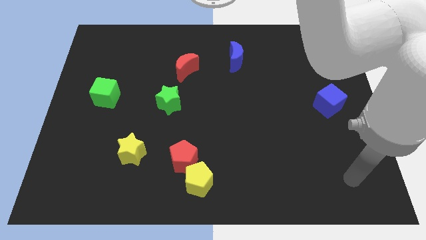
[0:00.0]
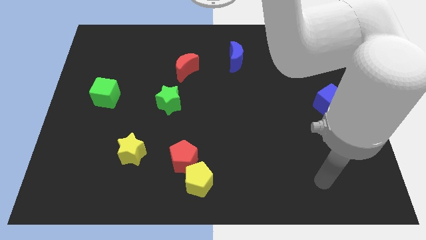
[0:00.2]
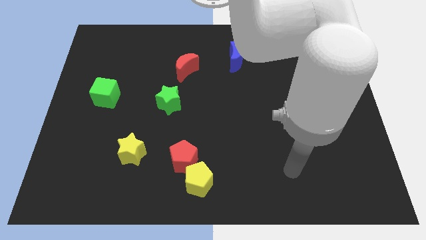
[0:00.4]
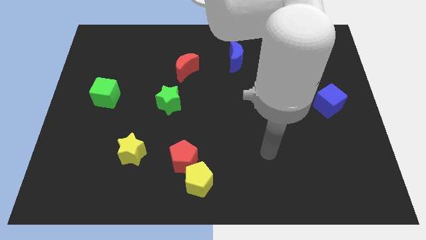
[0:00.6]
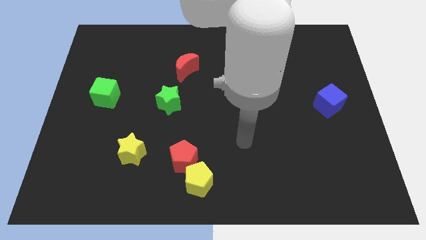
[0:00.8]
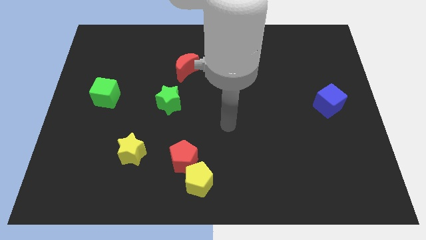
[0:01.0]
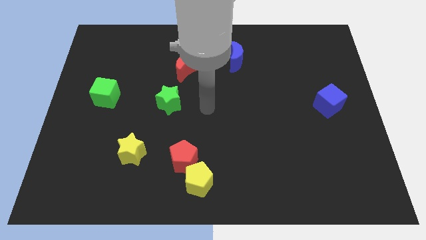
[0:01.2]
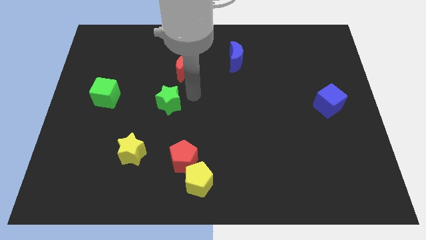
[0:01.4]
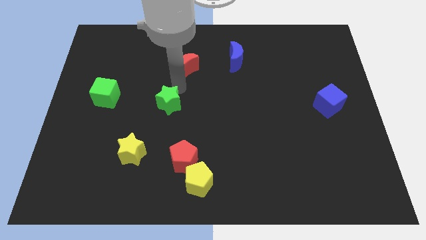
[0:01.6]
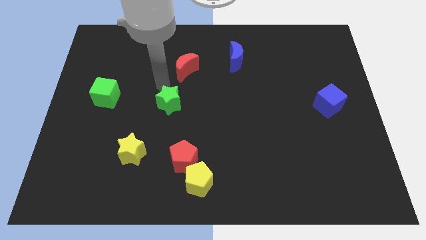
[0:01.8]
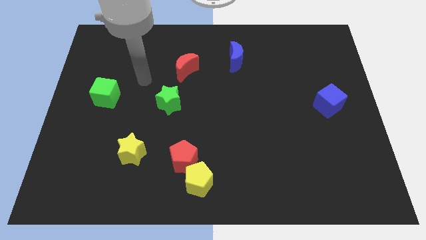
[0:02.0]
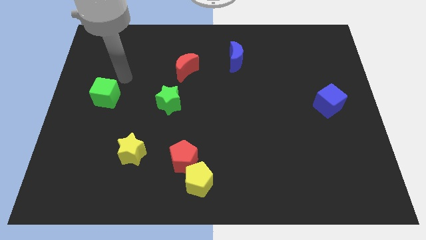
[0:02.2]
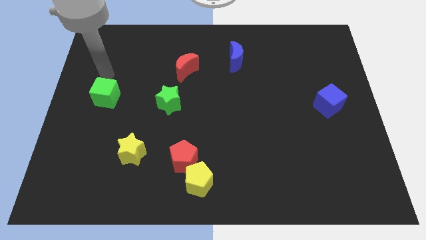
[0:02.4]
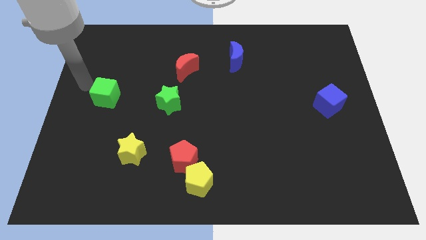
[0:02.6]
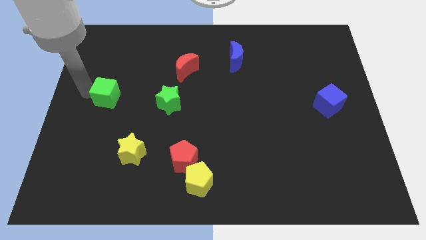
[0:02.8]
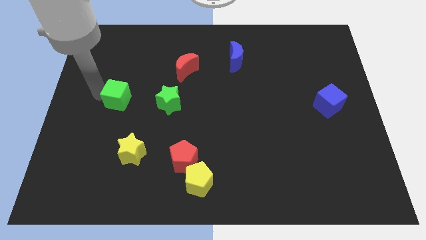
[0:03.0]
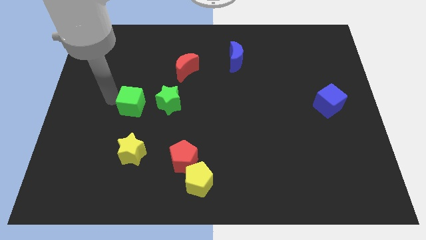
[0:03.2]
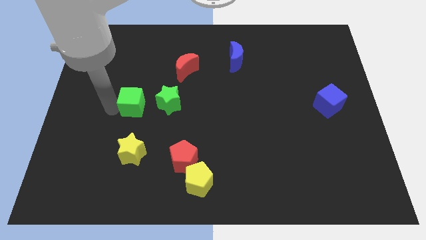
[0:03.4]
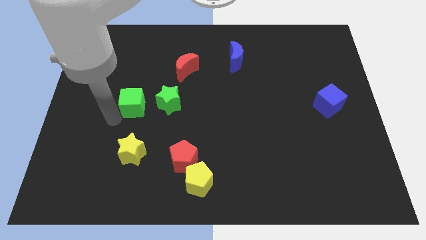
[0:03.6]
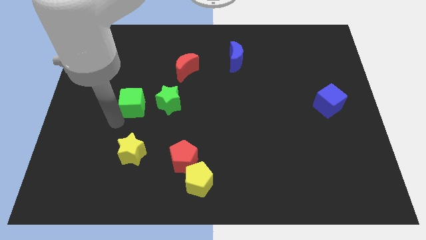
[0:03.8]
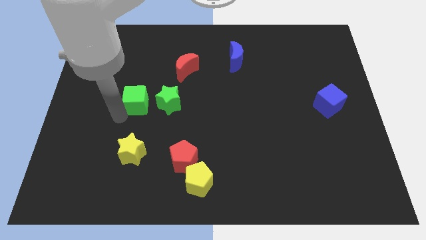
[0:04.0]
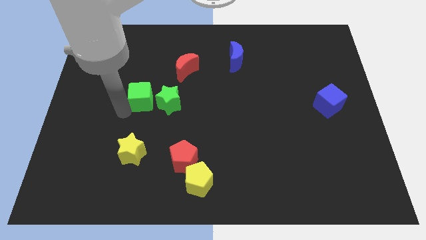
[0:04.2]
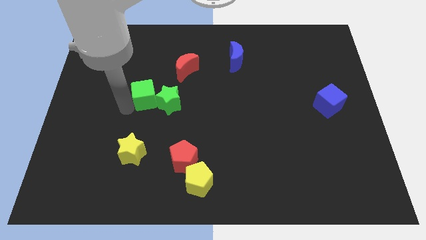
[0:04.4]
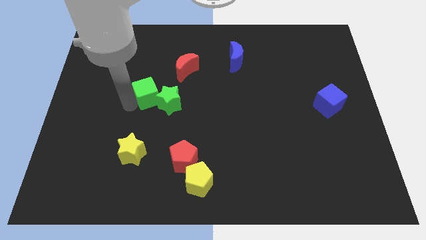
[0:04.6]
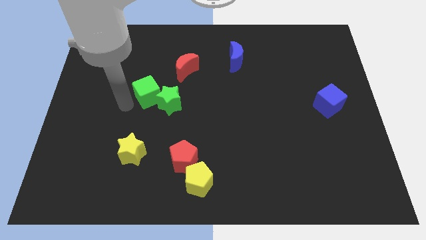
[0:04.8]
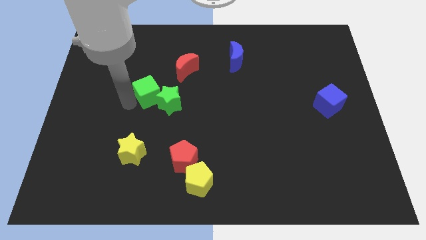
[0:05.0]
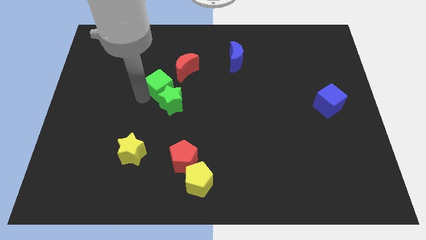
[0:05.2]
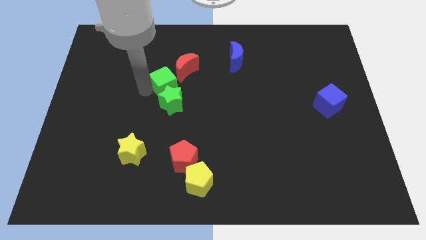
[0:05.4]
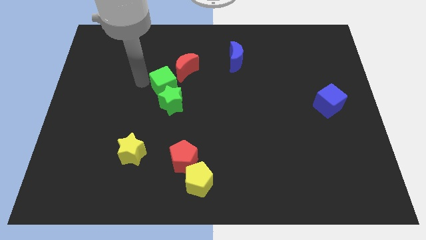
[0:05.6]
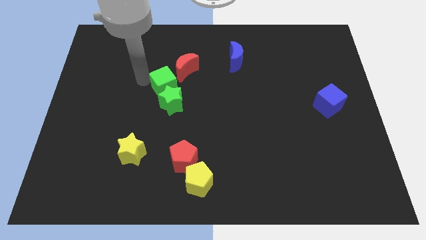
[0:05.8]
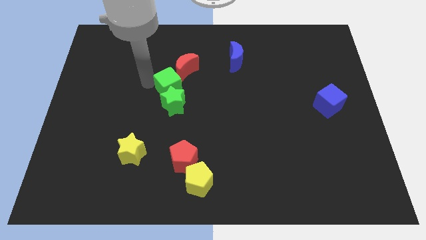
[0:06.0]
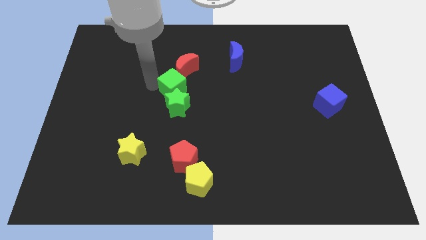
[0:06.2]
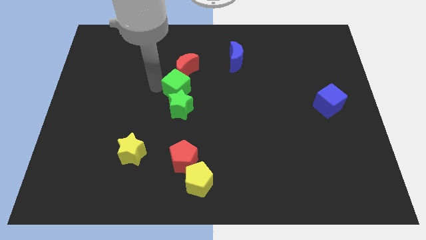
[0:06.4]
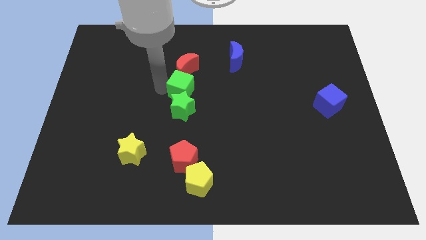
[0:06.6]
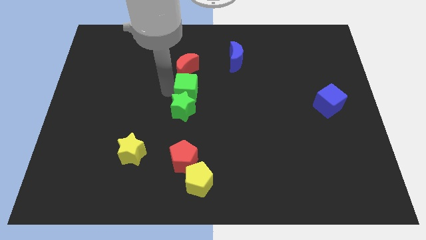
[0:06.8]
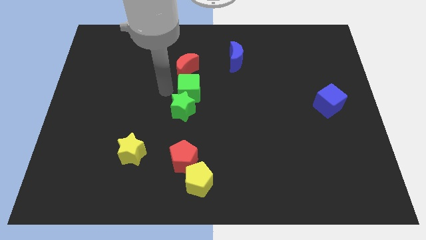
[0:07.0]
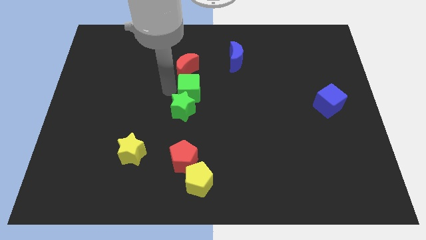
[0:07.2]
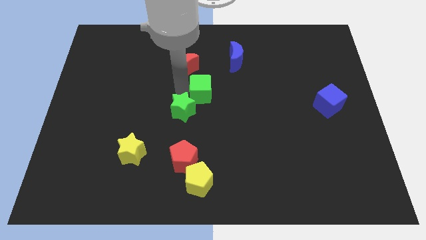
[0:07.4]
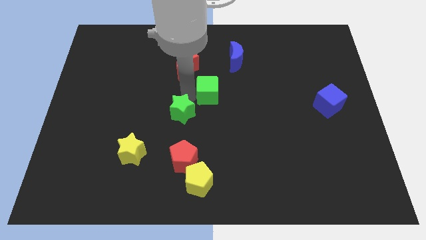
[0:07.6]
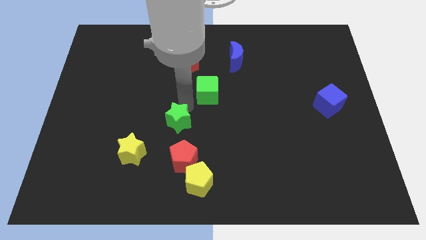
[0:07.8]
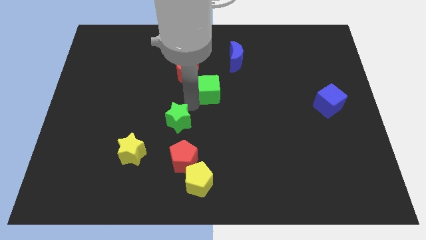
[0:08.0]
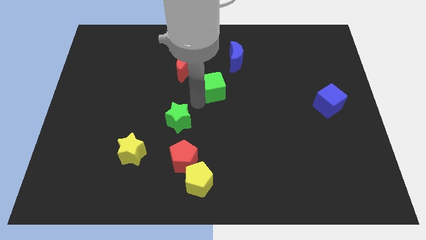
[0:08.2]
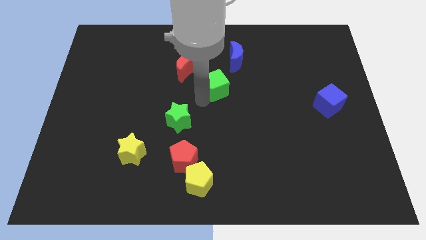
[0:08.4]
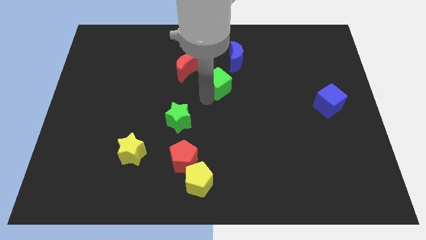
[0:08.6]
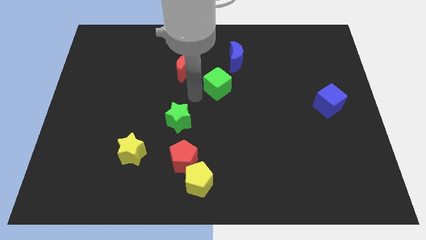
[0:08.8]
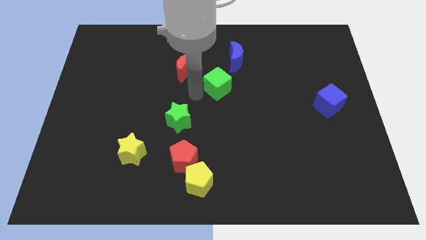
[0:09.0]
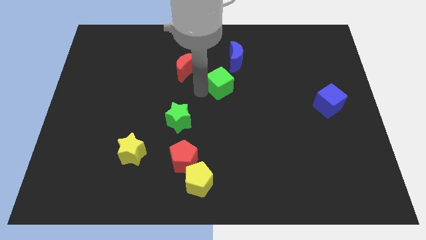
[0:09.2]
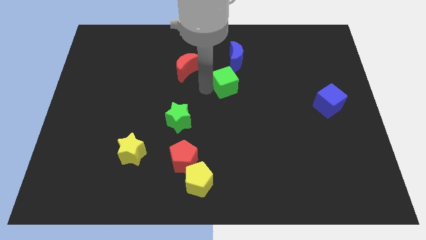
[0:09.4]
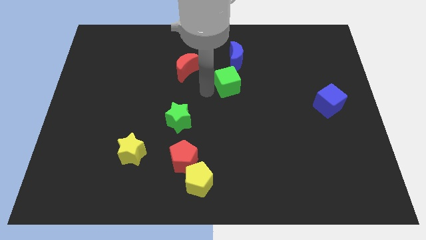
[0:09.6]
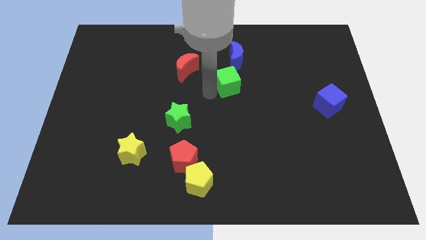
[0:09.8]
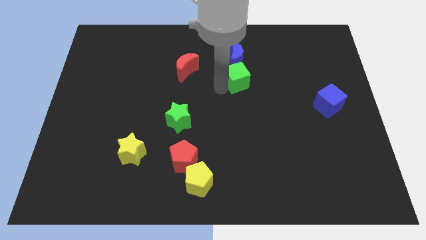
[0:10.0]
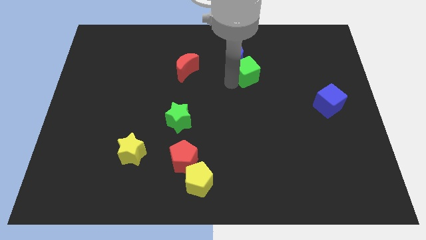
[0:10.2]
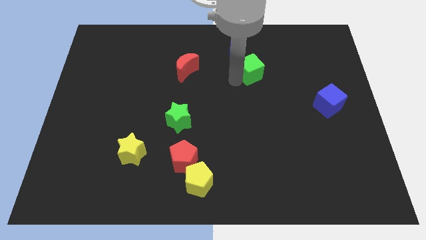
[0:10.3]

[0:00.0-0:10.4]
slide the green cube to the right of the blue moon

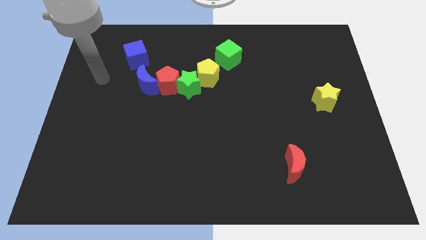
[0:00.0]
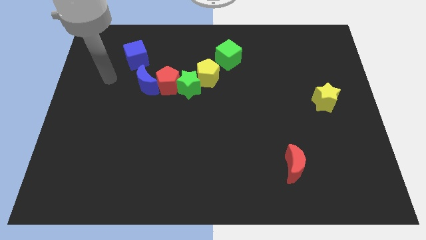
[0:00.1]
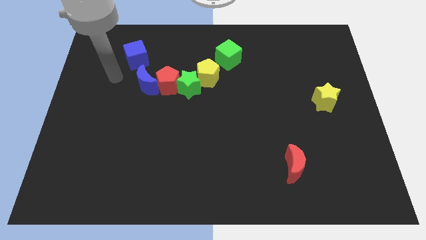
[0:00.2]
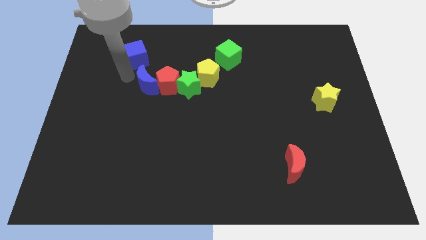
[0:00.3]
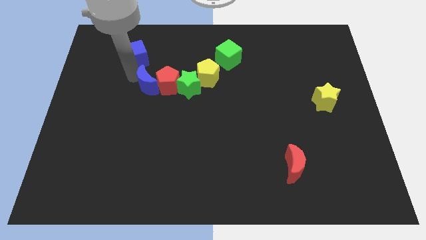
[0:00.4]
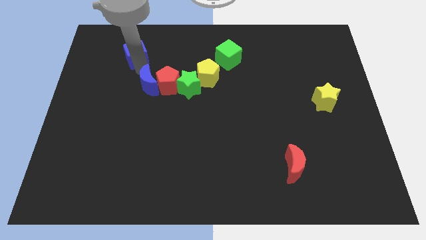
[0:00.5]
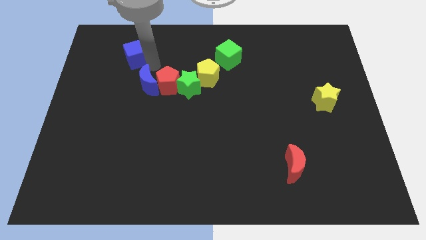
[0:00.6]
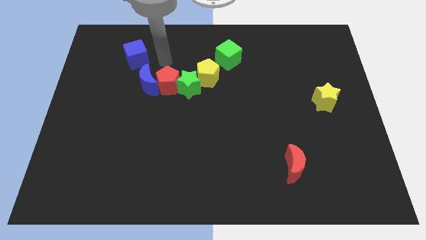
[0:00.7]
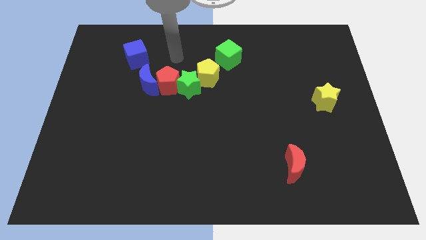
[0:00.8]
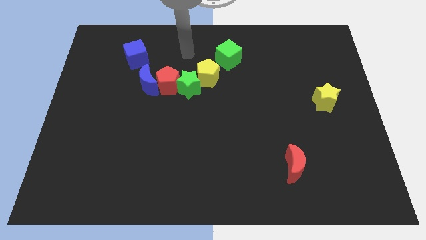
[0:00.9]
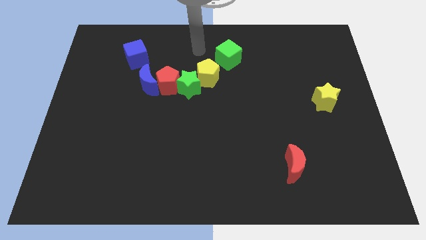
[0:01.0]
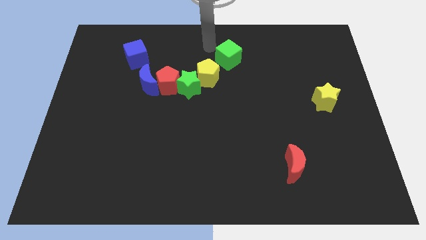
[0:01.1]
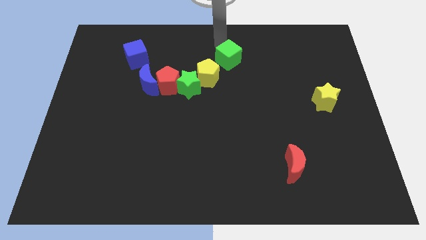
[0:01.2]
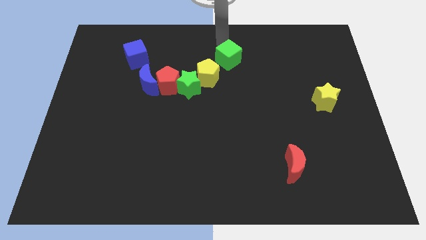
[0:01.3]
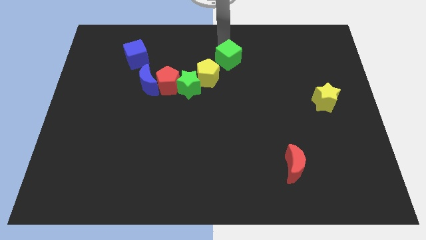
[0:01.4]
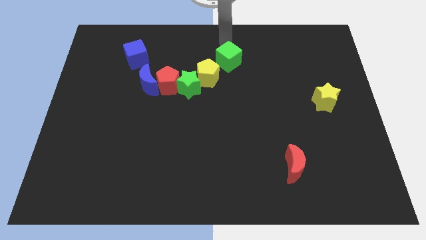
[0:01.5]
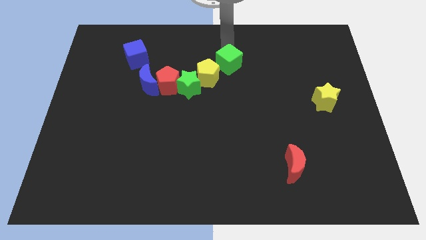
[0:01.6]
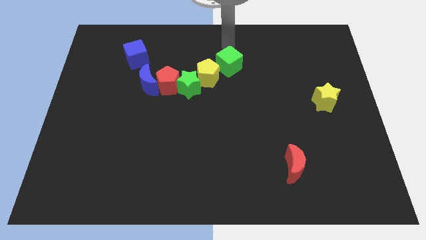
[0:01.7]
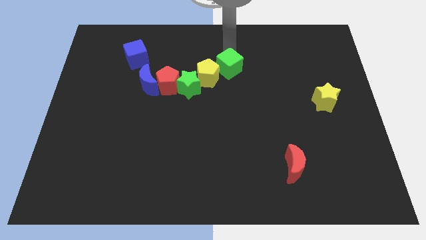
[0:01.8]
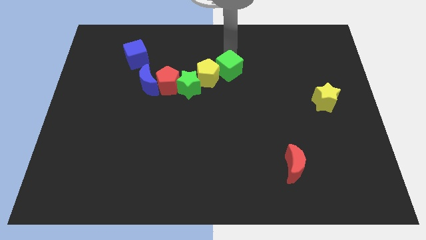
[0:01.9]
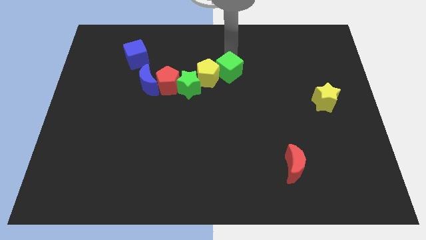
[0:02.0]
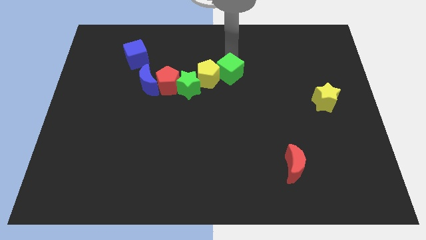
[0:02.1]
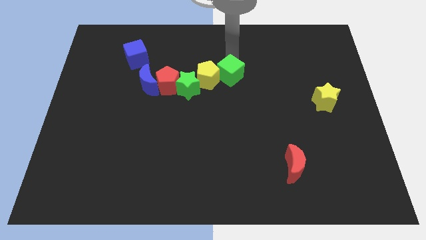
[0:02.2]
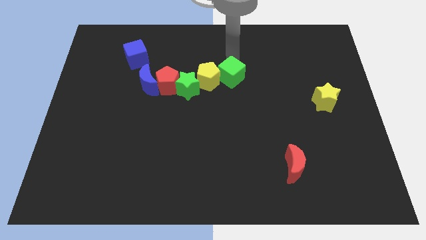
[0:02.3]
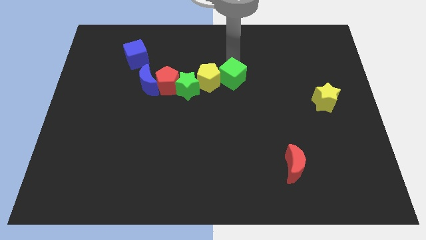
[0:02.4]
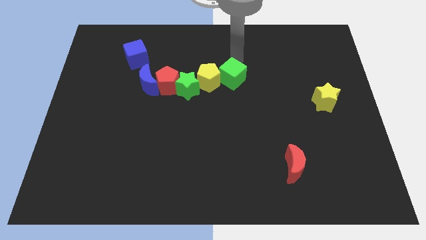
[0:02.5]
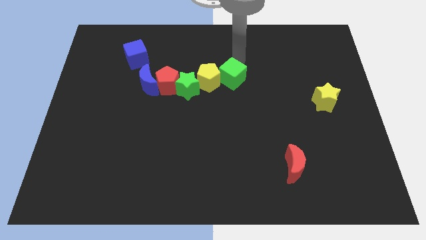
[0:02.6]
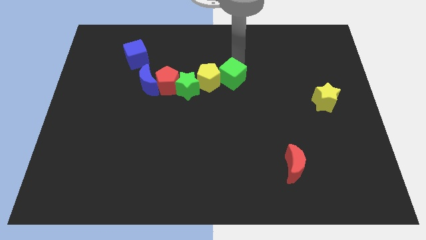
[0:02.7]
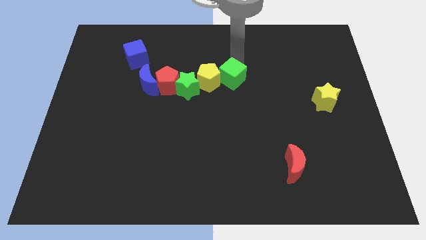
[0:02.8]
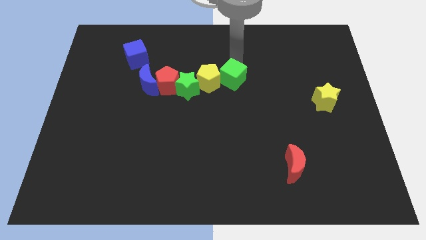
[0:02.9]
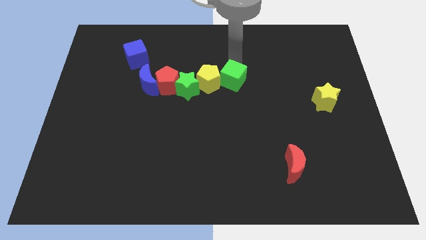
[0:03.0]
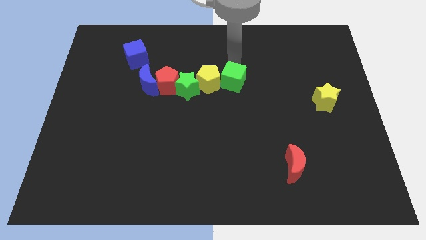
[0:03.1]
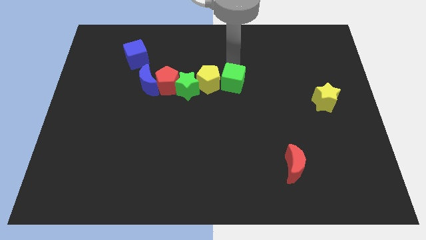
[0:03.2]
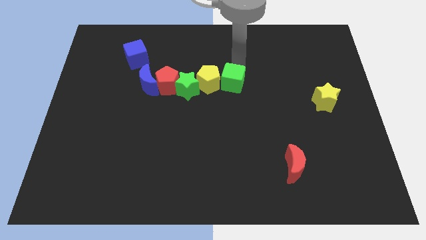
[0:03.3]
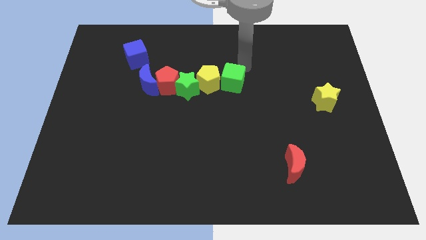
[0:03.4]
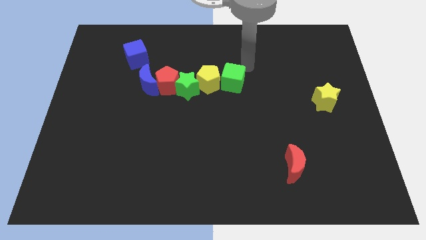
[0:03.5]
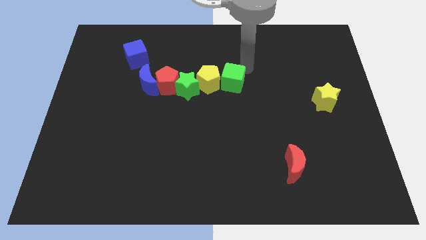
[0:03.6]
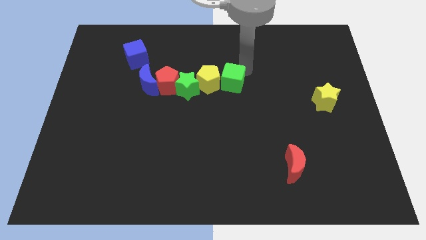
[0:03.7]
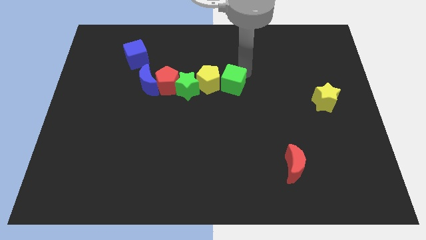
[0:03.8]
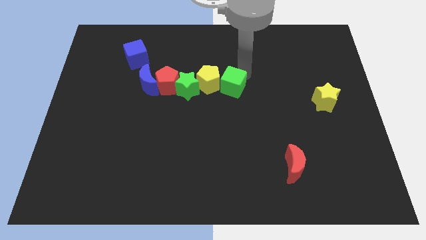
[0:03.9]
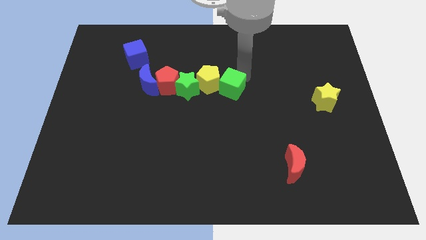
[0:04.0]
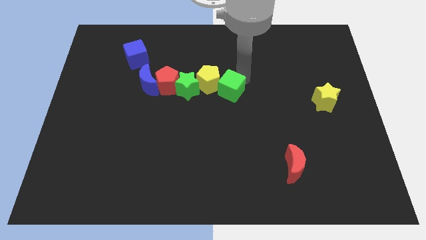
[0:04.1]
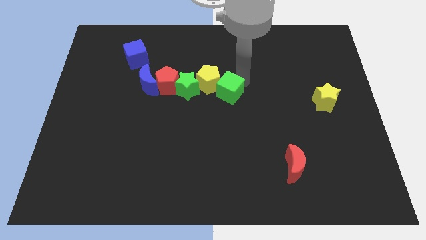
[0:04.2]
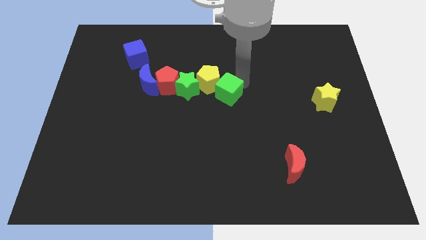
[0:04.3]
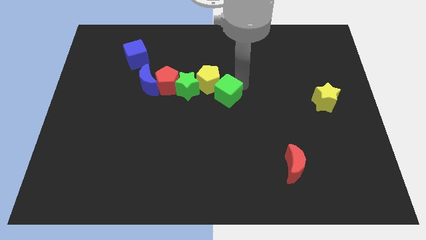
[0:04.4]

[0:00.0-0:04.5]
slide the green cube to the bottom of the yellow pentagon
